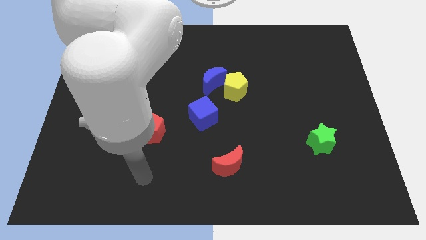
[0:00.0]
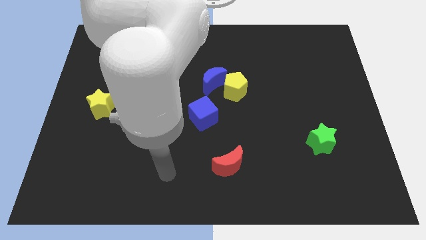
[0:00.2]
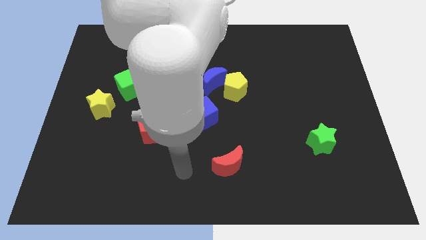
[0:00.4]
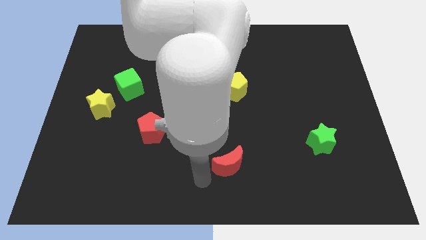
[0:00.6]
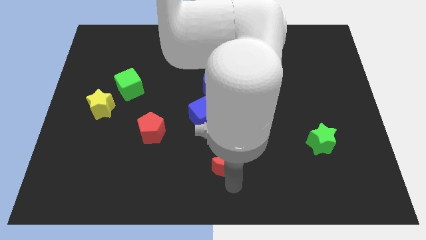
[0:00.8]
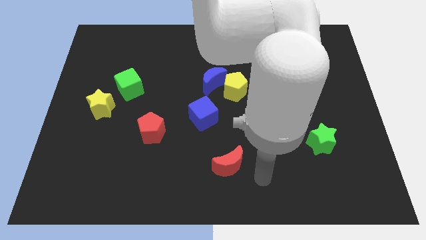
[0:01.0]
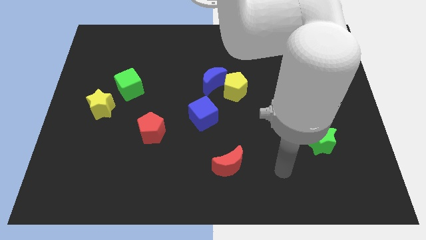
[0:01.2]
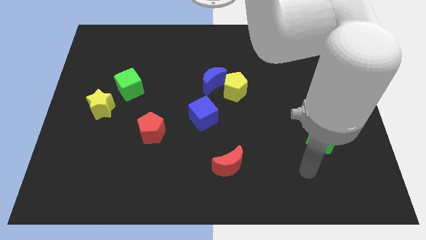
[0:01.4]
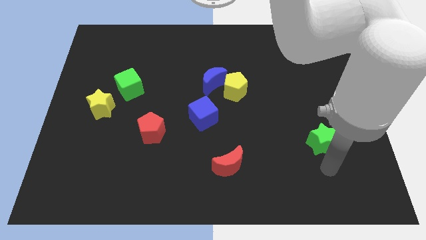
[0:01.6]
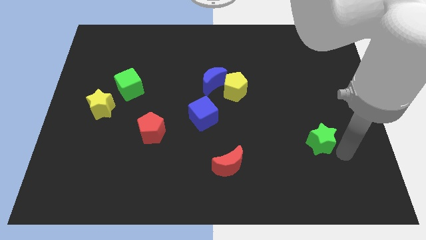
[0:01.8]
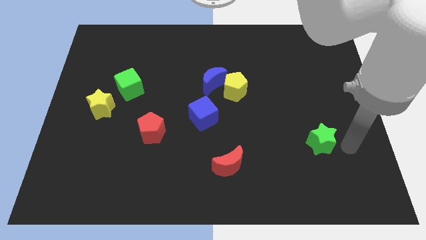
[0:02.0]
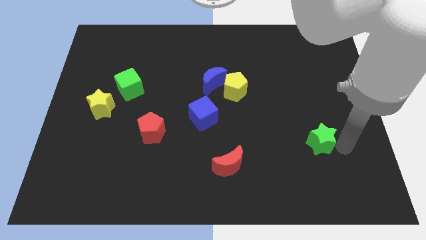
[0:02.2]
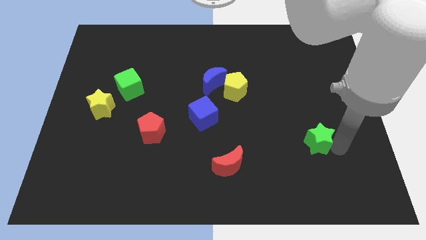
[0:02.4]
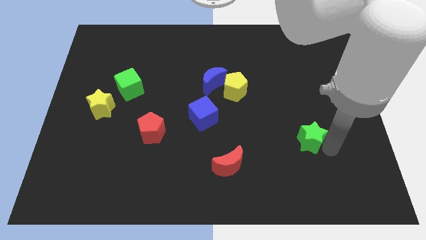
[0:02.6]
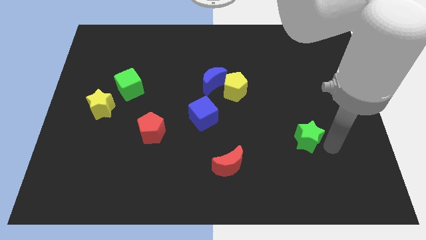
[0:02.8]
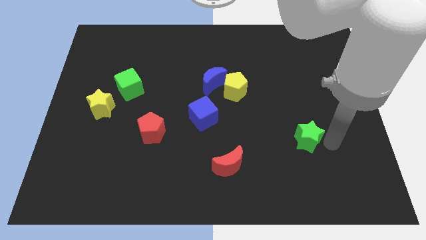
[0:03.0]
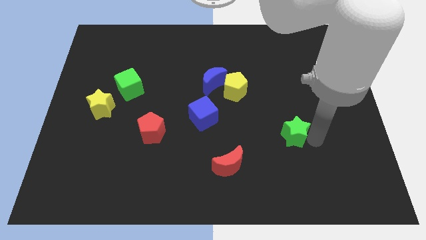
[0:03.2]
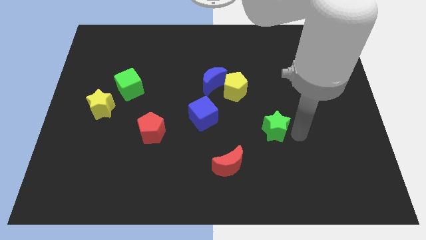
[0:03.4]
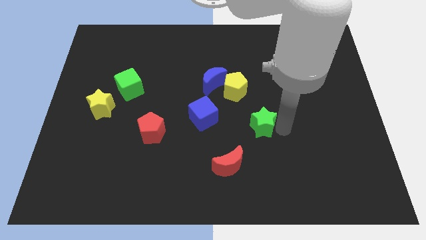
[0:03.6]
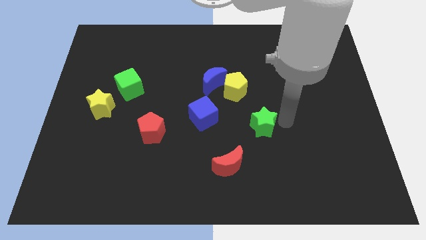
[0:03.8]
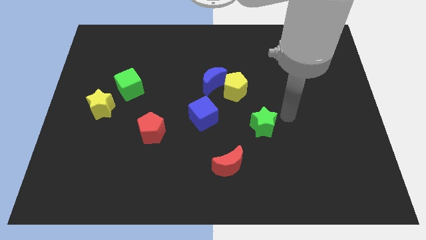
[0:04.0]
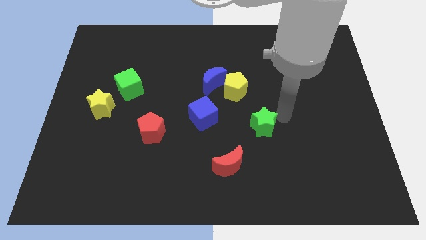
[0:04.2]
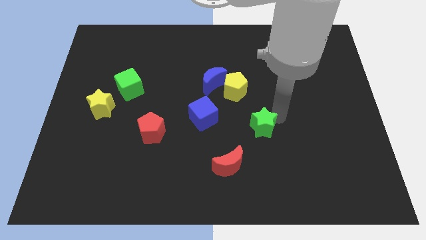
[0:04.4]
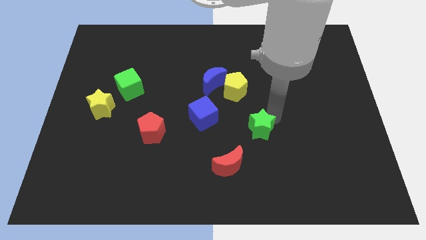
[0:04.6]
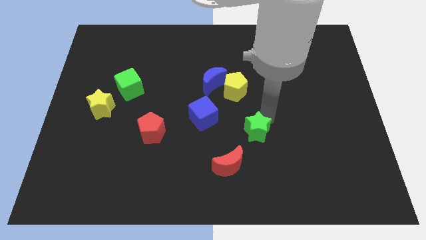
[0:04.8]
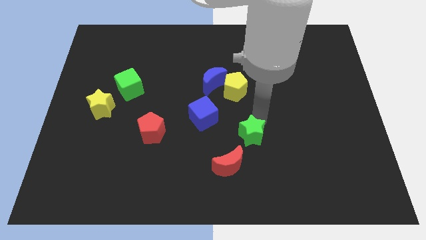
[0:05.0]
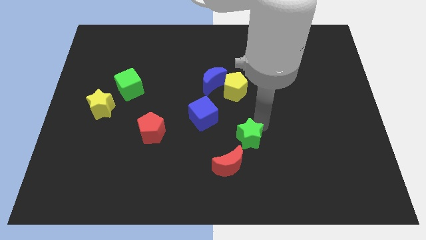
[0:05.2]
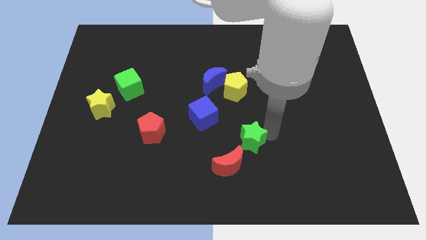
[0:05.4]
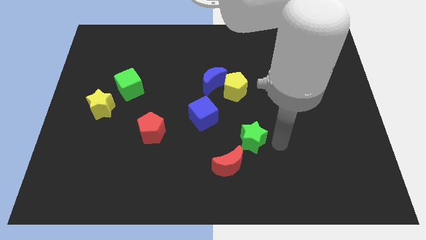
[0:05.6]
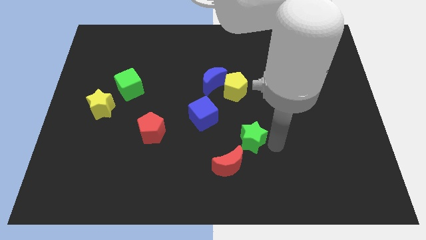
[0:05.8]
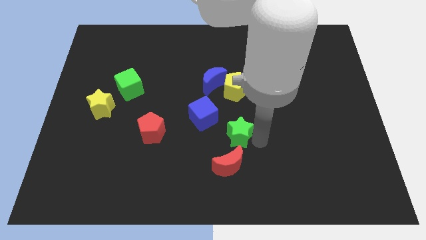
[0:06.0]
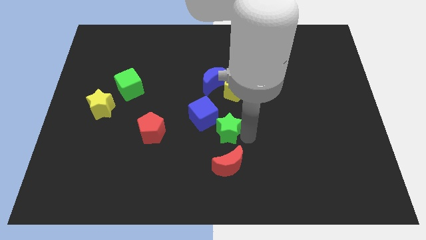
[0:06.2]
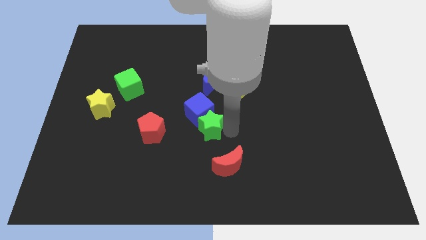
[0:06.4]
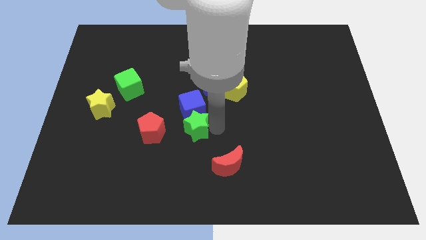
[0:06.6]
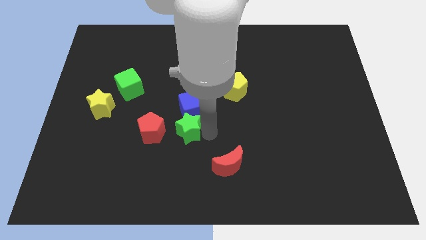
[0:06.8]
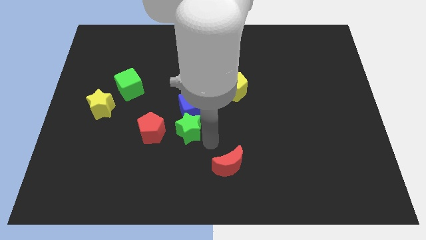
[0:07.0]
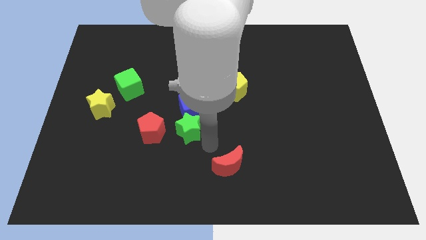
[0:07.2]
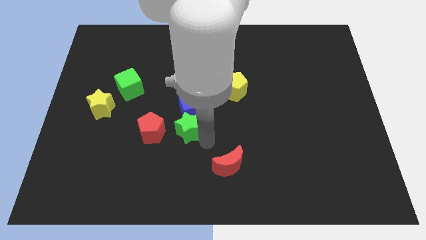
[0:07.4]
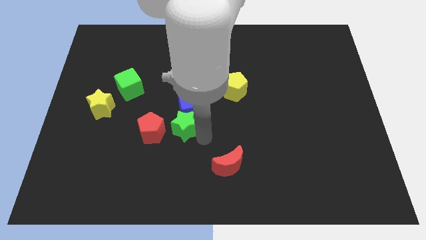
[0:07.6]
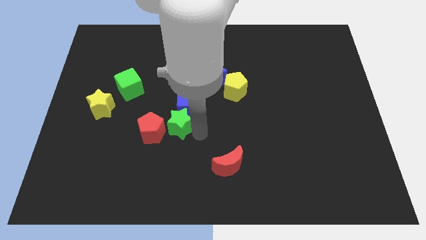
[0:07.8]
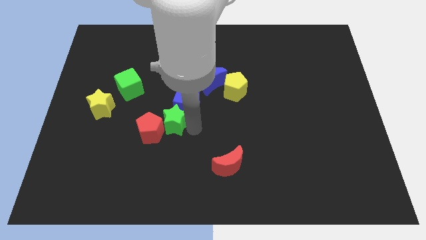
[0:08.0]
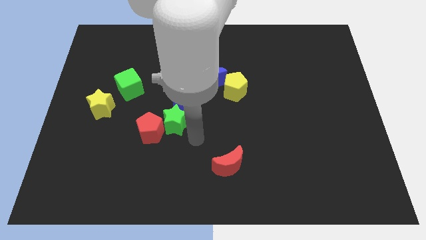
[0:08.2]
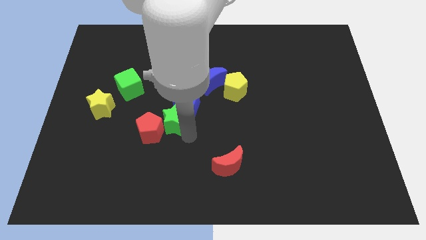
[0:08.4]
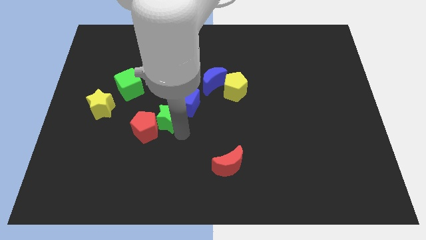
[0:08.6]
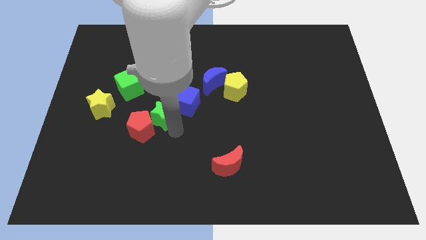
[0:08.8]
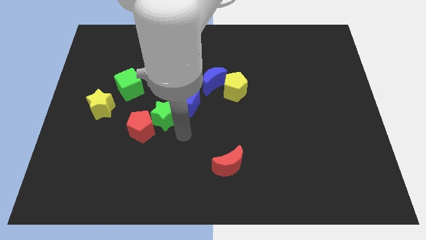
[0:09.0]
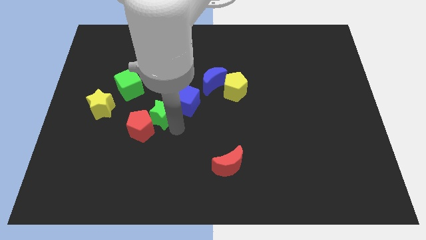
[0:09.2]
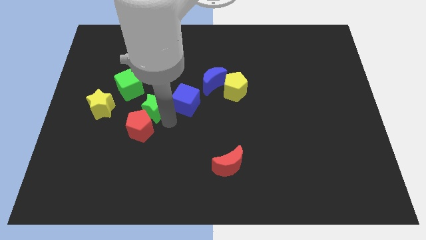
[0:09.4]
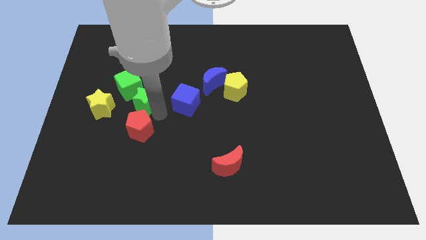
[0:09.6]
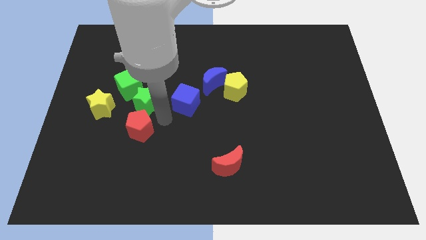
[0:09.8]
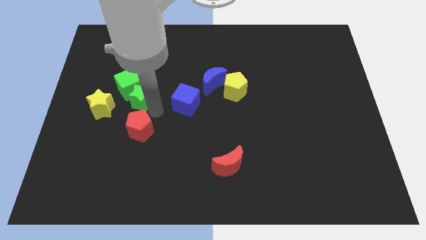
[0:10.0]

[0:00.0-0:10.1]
slide the green star to the green cube

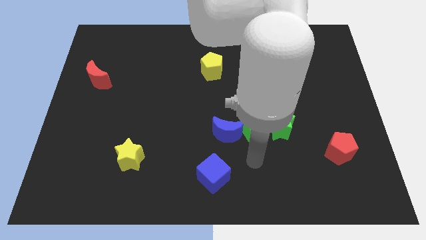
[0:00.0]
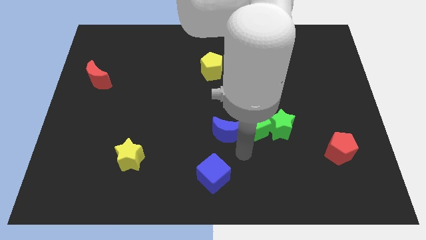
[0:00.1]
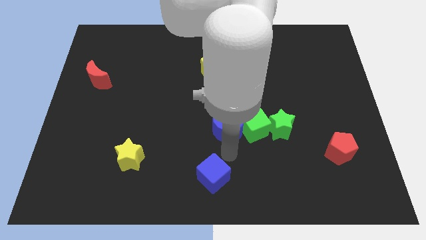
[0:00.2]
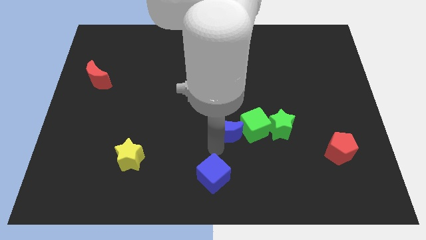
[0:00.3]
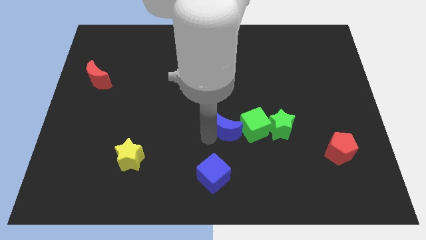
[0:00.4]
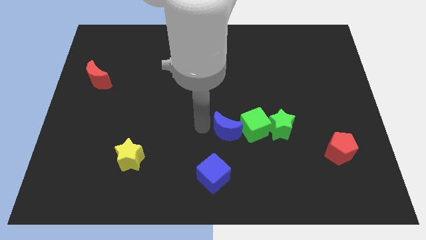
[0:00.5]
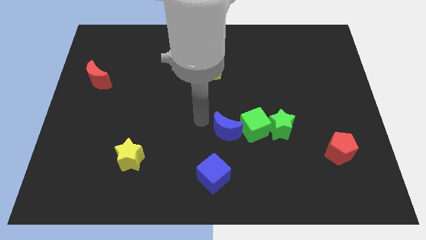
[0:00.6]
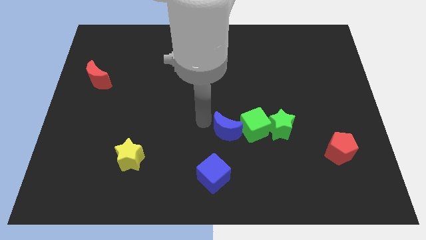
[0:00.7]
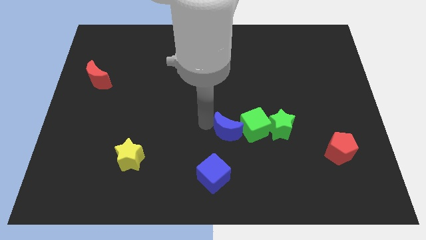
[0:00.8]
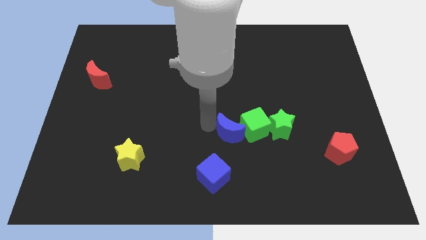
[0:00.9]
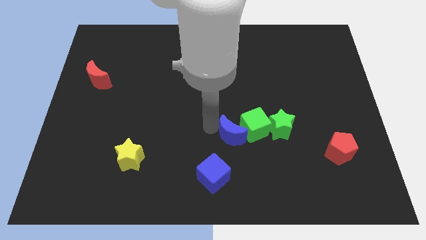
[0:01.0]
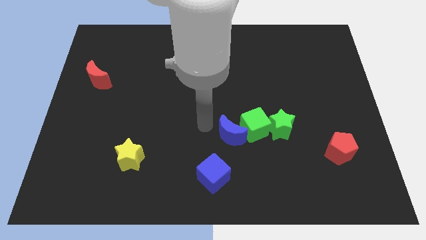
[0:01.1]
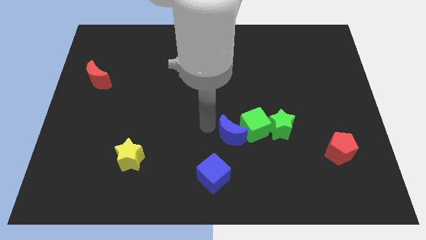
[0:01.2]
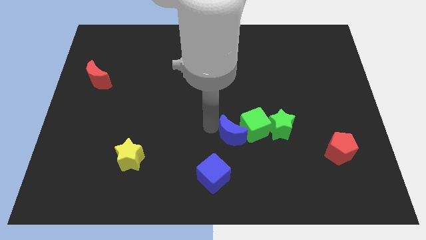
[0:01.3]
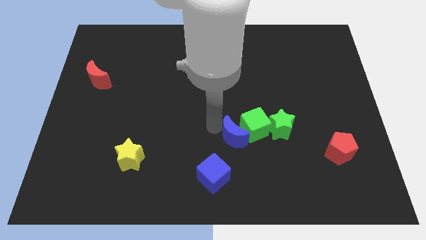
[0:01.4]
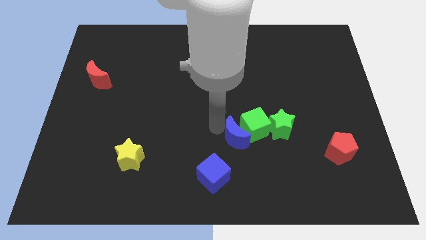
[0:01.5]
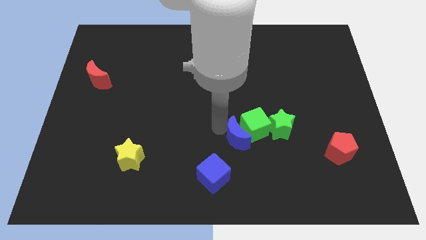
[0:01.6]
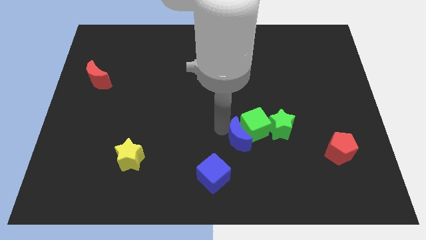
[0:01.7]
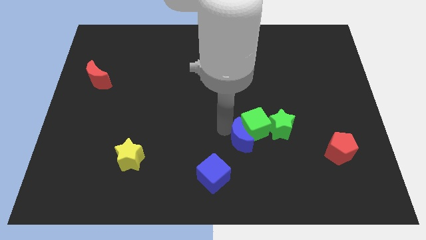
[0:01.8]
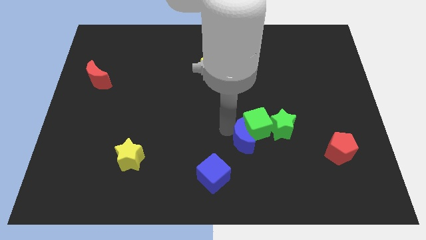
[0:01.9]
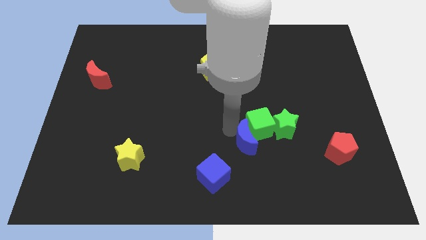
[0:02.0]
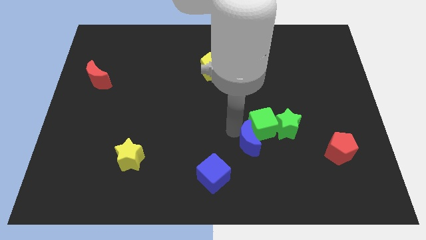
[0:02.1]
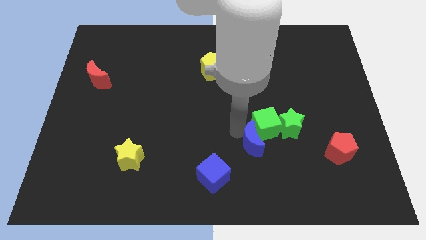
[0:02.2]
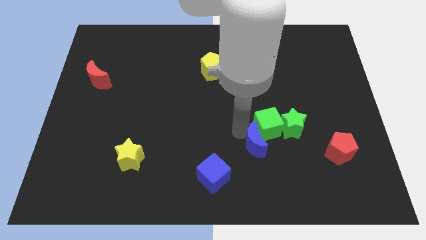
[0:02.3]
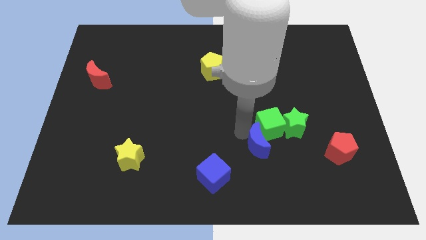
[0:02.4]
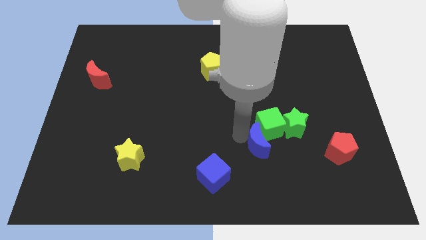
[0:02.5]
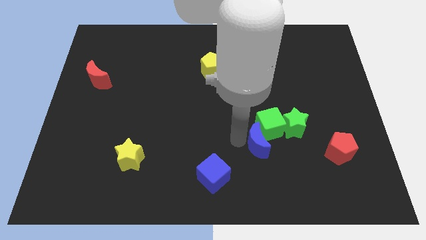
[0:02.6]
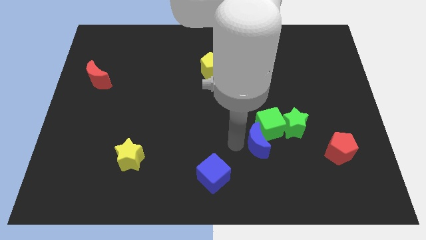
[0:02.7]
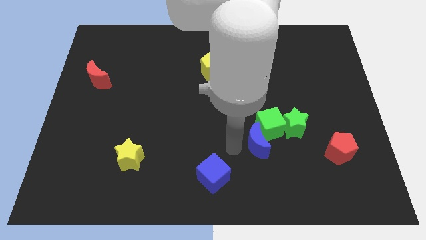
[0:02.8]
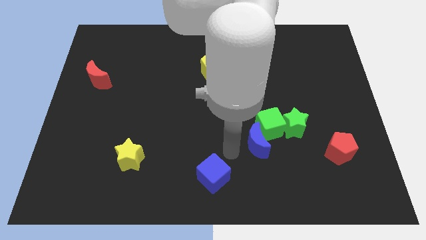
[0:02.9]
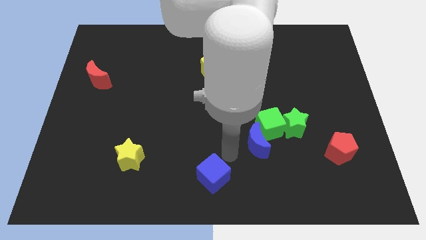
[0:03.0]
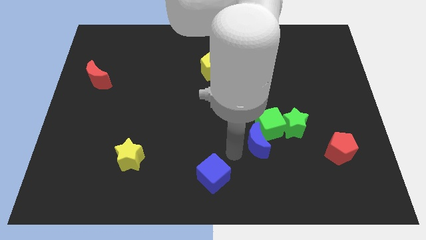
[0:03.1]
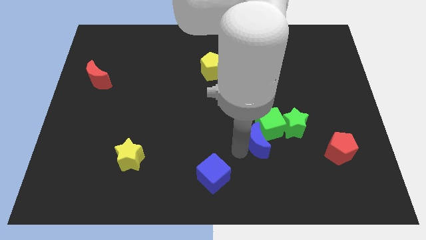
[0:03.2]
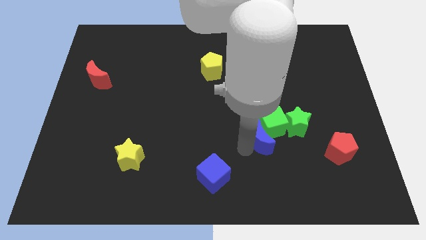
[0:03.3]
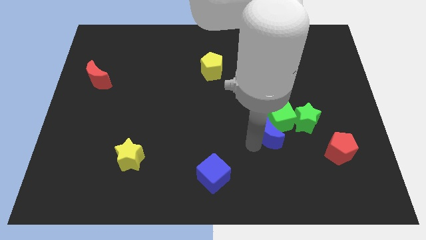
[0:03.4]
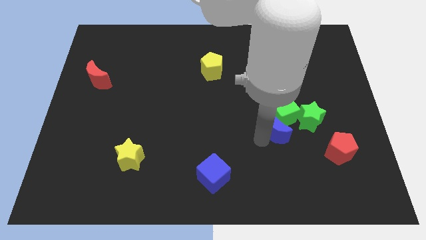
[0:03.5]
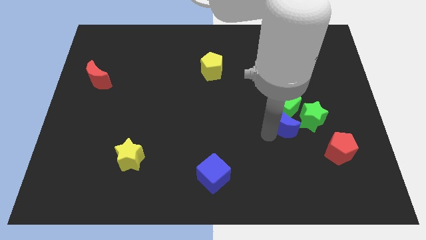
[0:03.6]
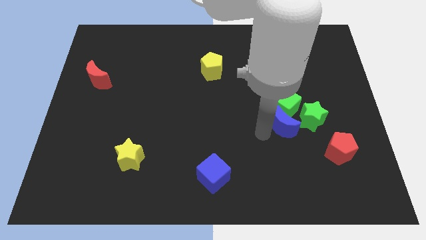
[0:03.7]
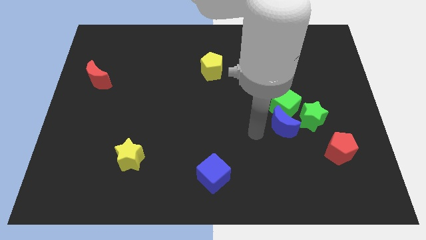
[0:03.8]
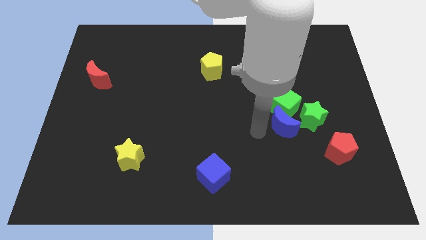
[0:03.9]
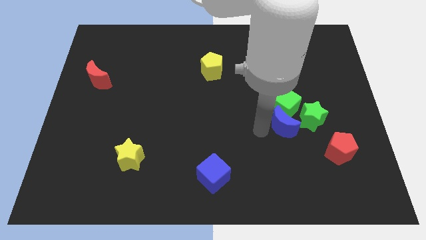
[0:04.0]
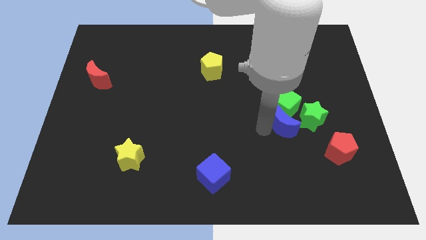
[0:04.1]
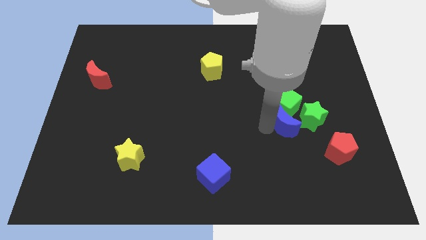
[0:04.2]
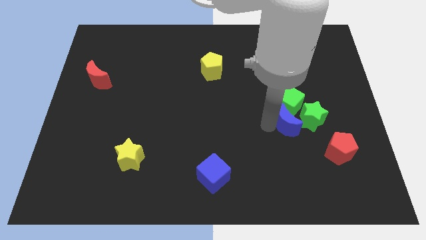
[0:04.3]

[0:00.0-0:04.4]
push the blue moon next to the green star
